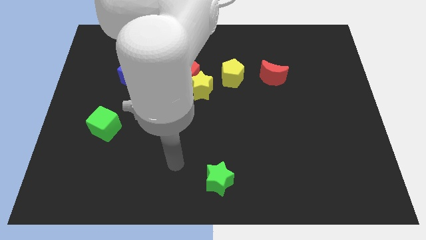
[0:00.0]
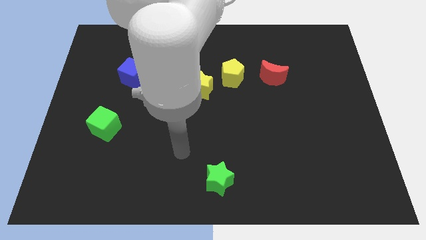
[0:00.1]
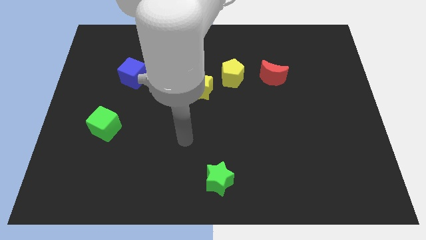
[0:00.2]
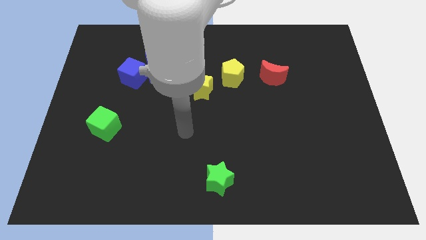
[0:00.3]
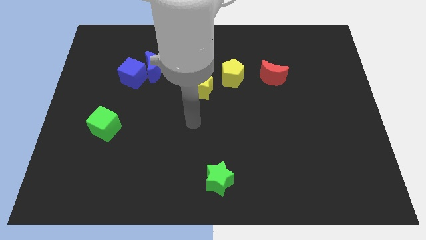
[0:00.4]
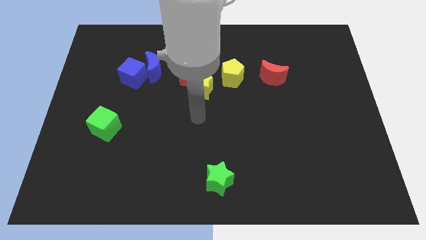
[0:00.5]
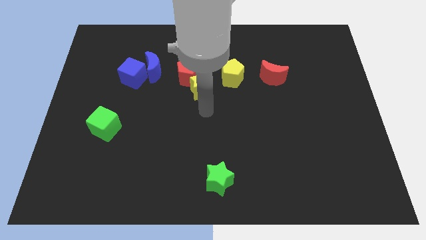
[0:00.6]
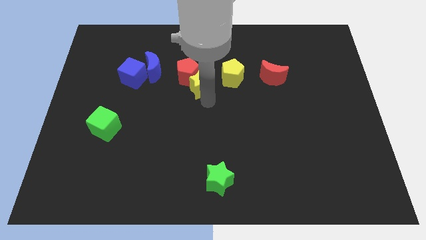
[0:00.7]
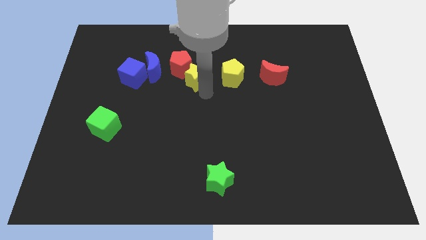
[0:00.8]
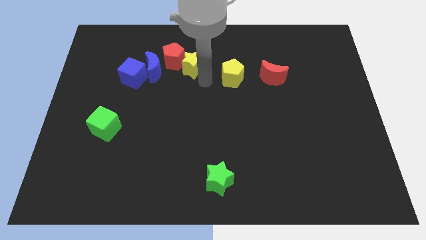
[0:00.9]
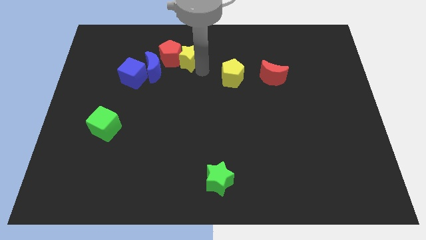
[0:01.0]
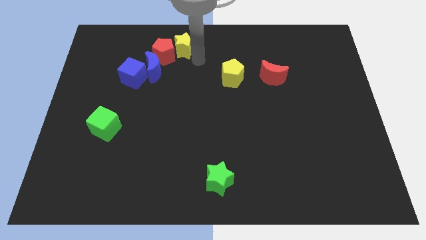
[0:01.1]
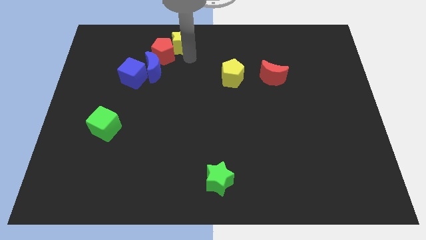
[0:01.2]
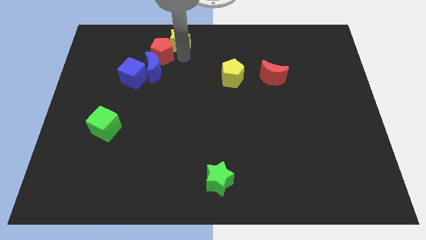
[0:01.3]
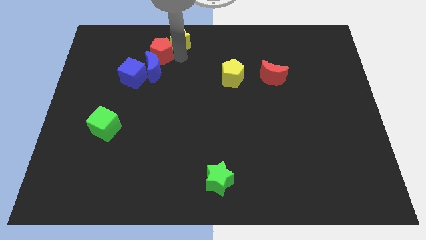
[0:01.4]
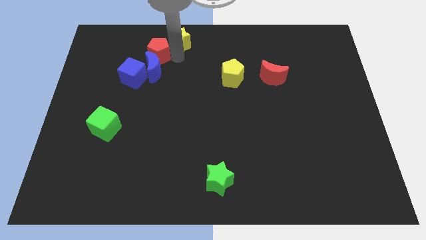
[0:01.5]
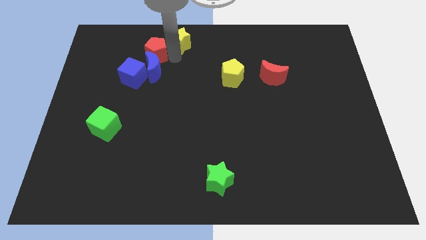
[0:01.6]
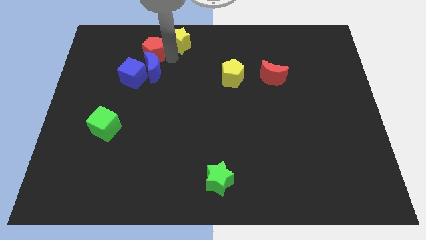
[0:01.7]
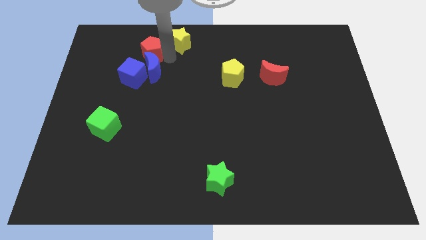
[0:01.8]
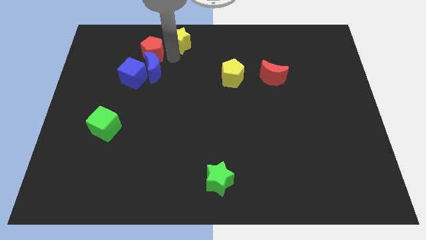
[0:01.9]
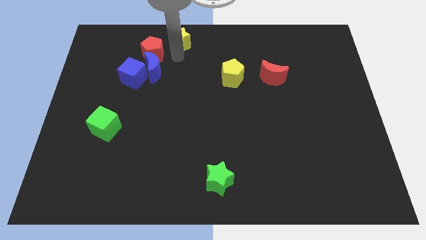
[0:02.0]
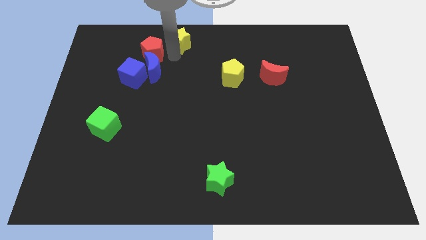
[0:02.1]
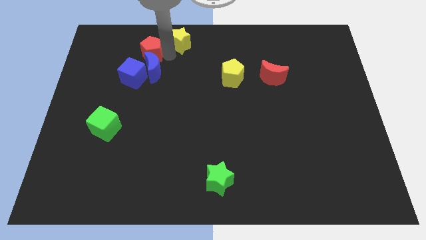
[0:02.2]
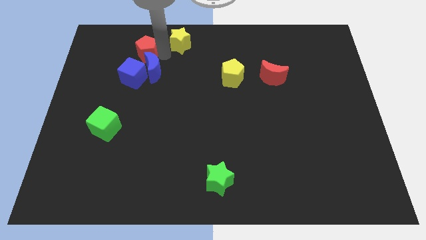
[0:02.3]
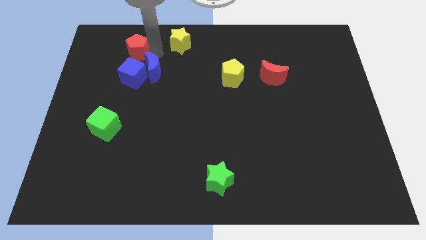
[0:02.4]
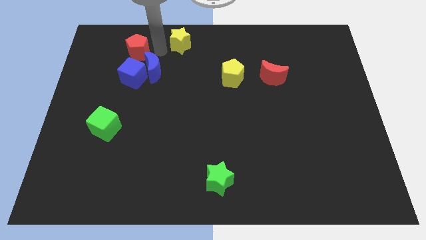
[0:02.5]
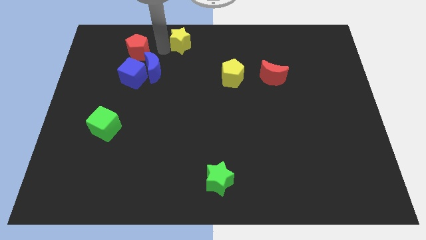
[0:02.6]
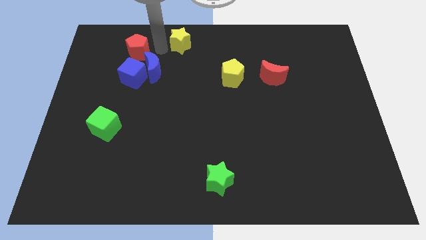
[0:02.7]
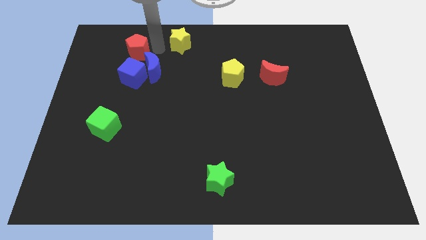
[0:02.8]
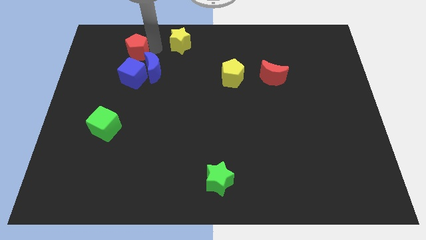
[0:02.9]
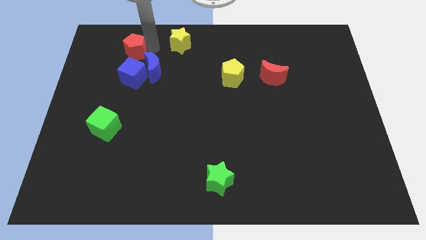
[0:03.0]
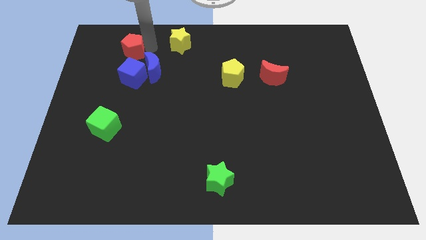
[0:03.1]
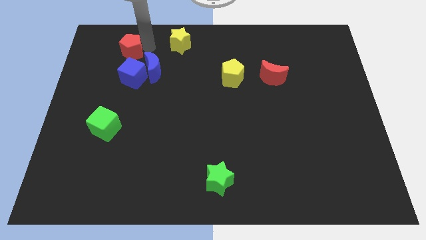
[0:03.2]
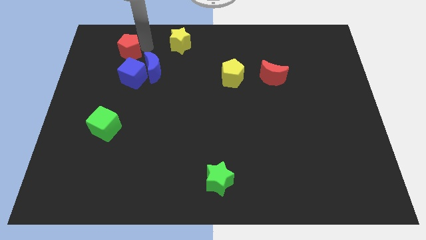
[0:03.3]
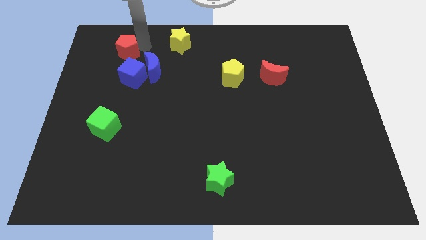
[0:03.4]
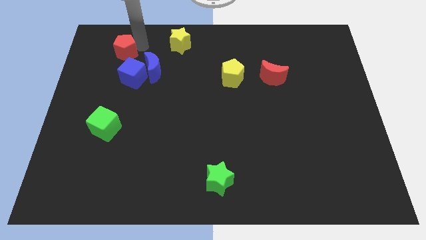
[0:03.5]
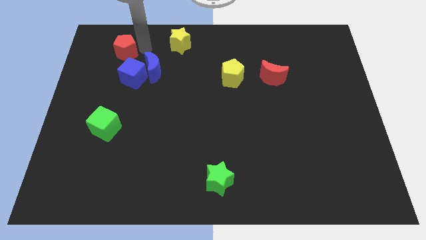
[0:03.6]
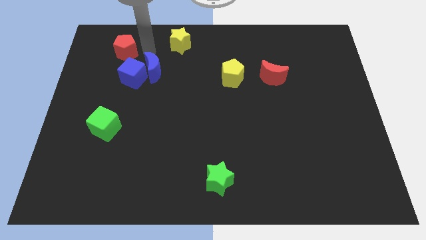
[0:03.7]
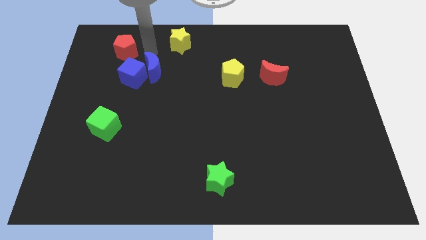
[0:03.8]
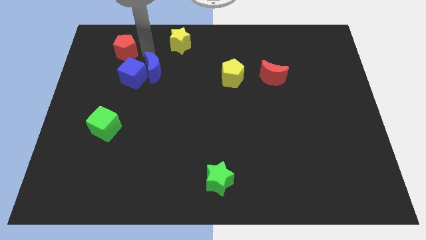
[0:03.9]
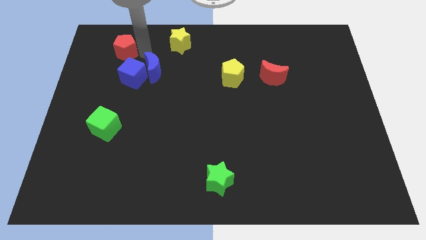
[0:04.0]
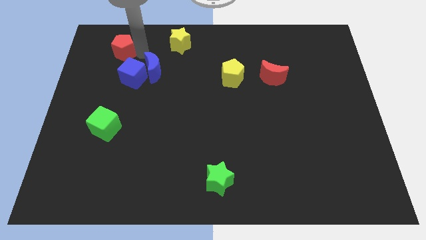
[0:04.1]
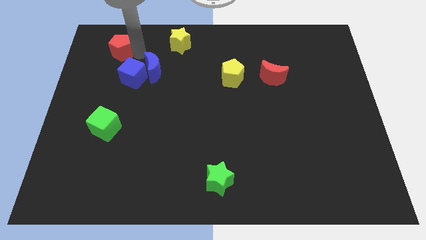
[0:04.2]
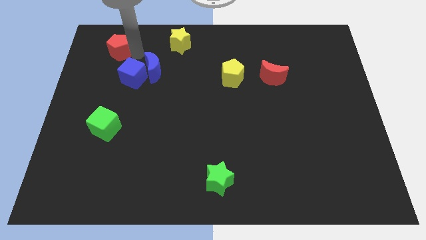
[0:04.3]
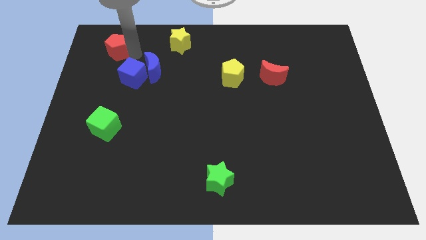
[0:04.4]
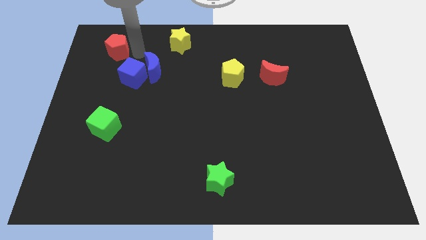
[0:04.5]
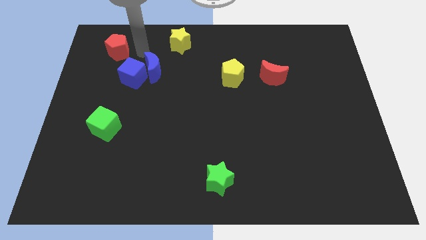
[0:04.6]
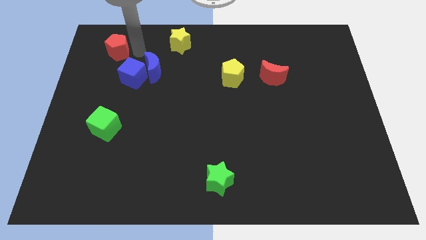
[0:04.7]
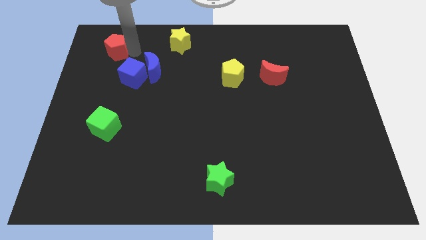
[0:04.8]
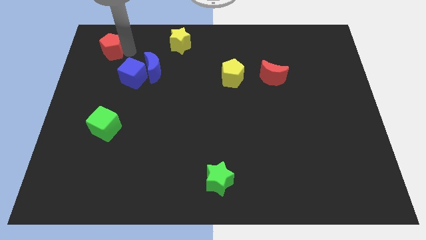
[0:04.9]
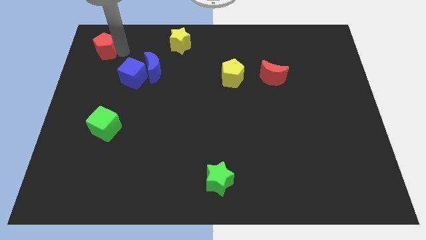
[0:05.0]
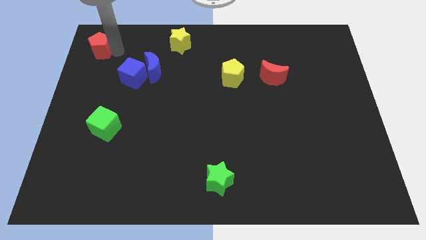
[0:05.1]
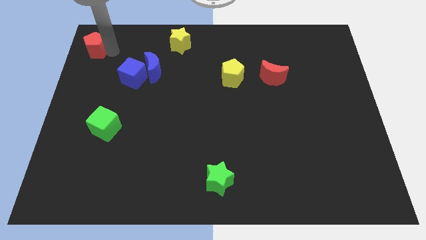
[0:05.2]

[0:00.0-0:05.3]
push the red pentagon to the upper left corner

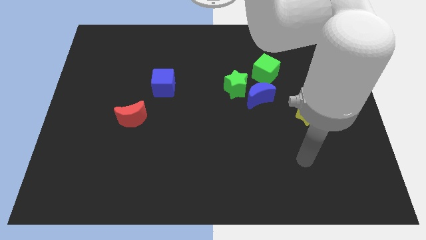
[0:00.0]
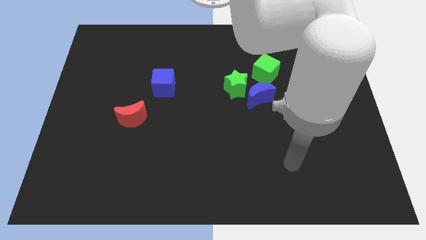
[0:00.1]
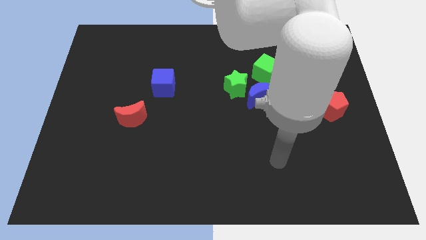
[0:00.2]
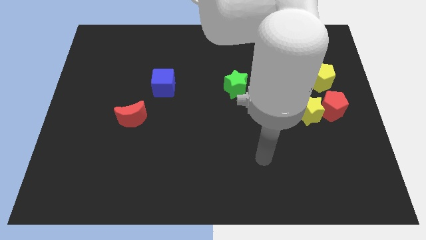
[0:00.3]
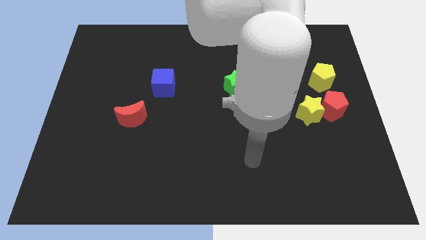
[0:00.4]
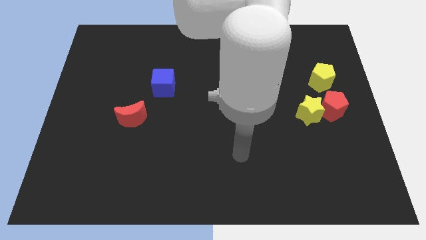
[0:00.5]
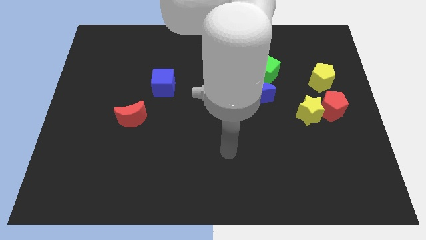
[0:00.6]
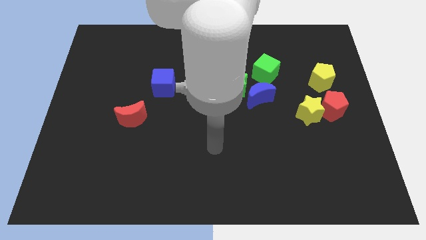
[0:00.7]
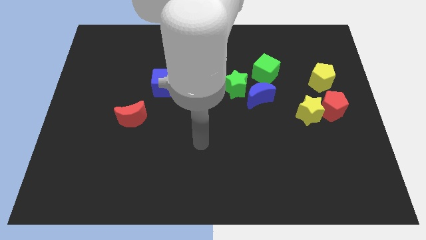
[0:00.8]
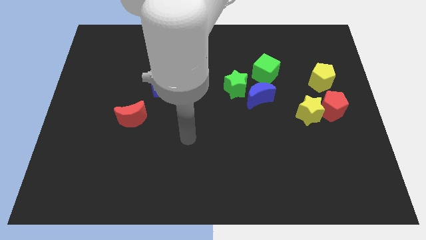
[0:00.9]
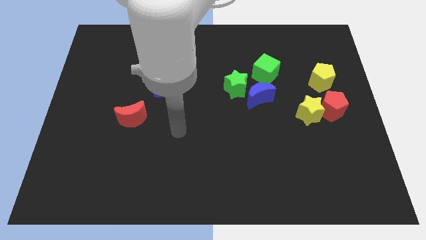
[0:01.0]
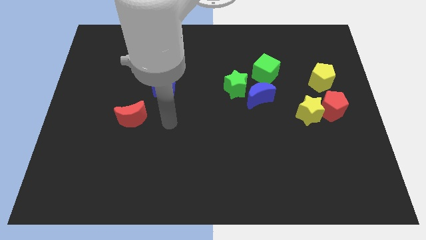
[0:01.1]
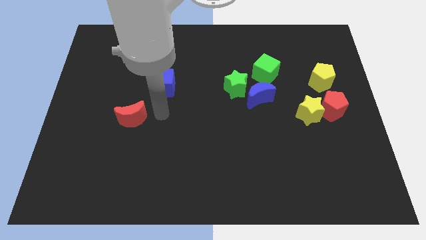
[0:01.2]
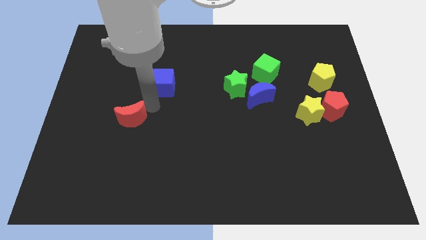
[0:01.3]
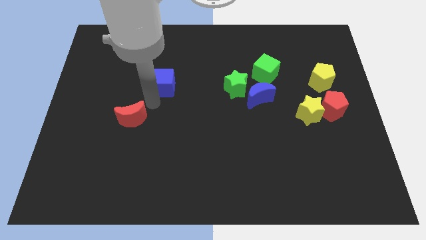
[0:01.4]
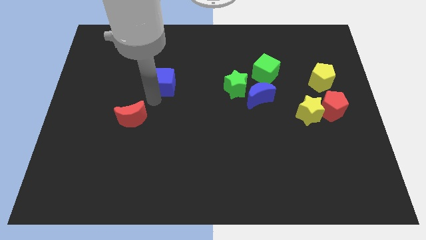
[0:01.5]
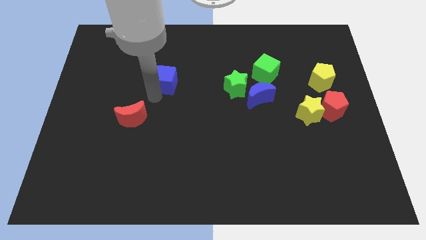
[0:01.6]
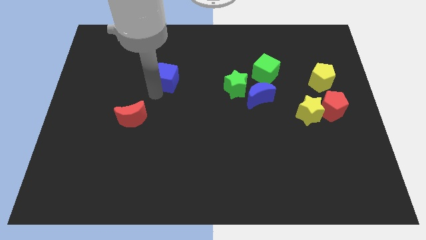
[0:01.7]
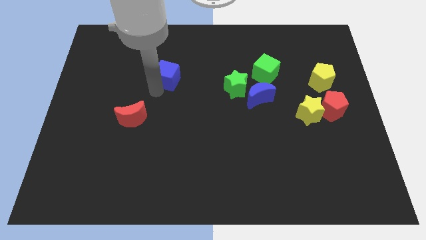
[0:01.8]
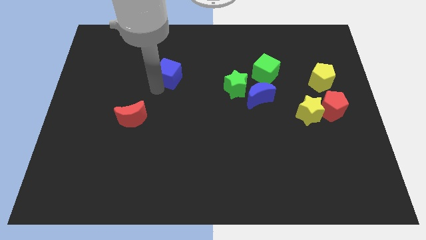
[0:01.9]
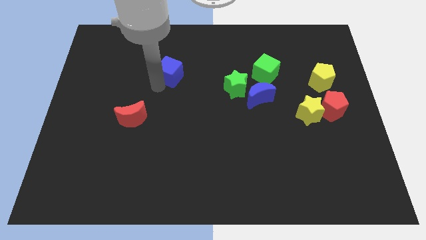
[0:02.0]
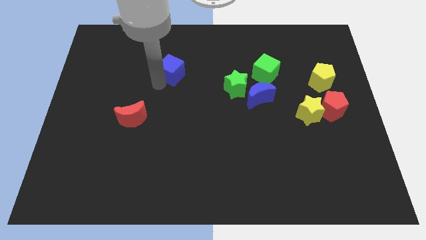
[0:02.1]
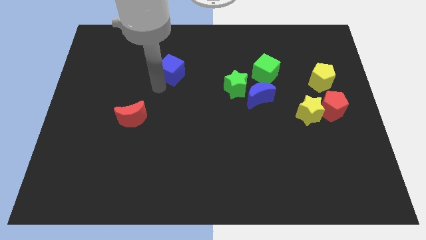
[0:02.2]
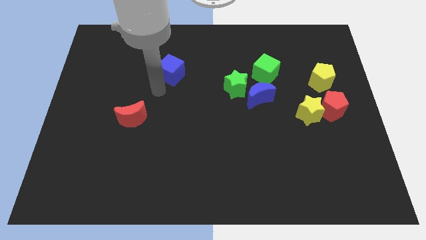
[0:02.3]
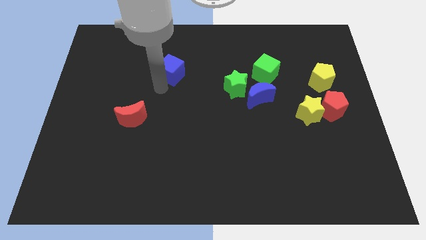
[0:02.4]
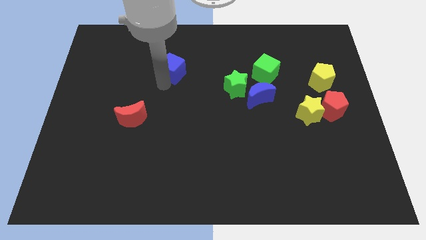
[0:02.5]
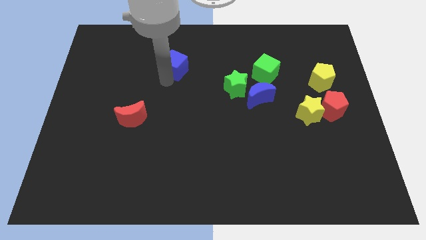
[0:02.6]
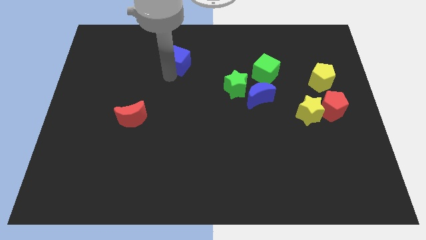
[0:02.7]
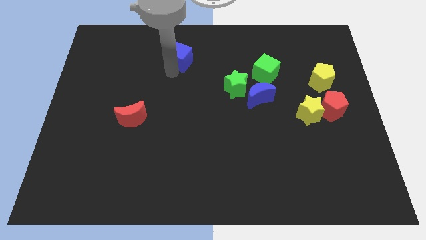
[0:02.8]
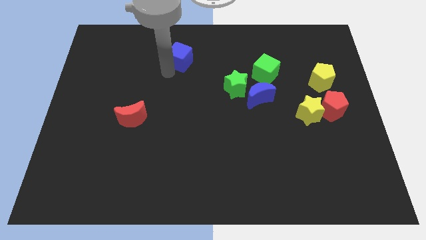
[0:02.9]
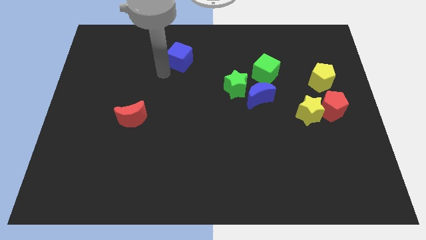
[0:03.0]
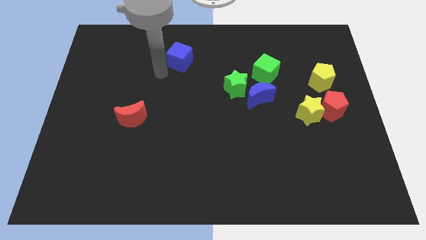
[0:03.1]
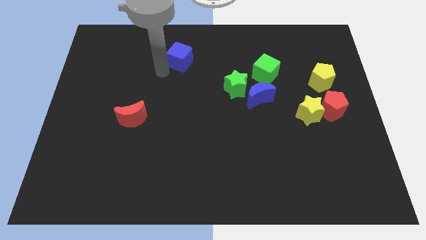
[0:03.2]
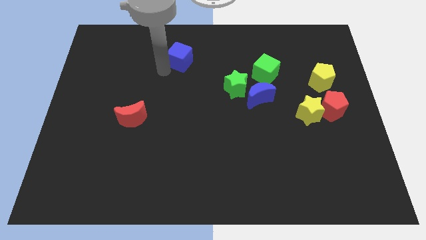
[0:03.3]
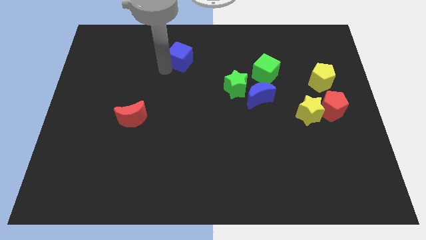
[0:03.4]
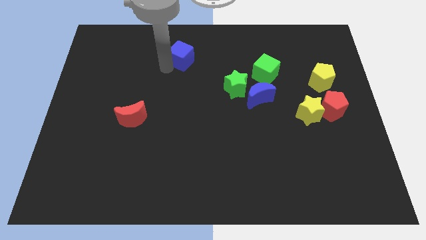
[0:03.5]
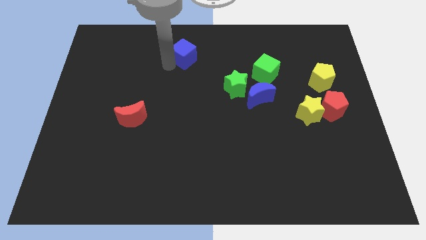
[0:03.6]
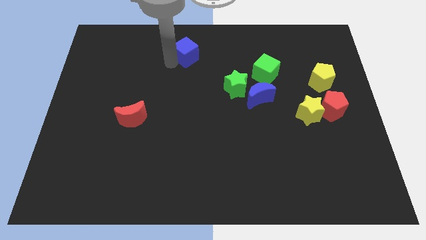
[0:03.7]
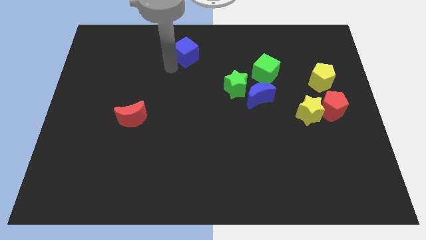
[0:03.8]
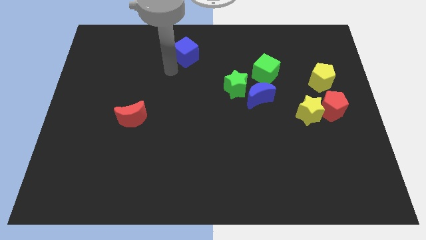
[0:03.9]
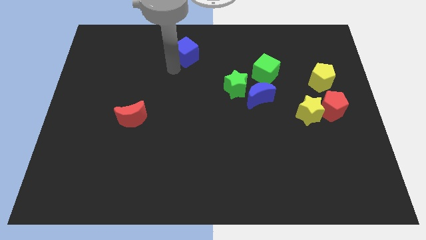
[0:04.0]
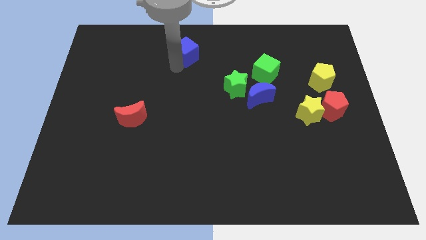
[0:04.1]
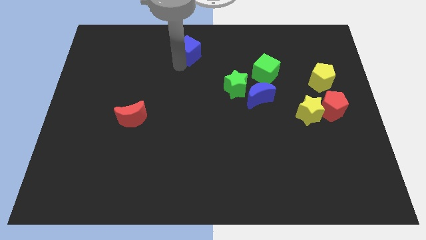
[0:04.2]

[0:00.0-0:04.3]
push the blue cube to the top
